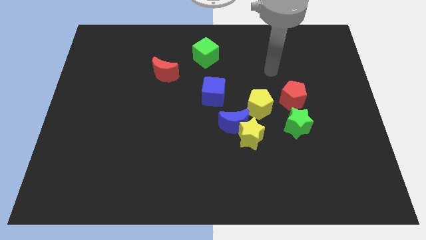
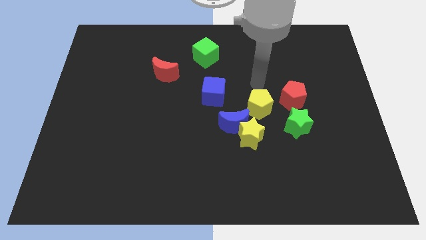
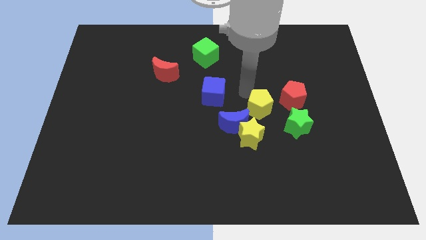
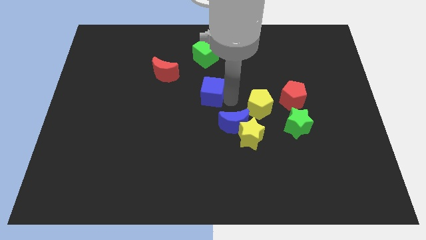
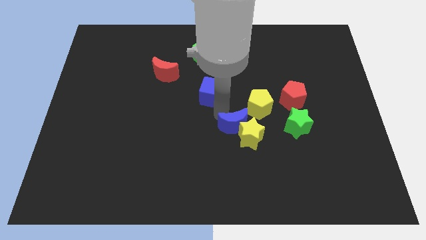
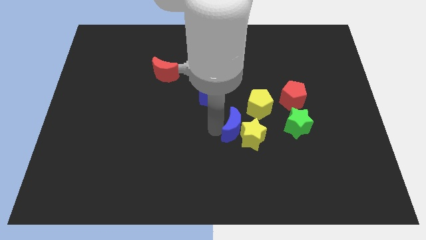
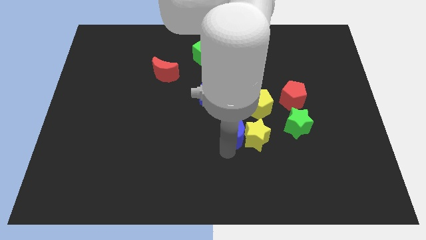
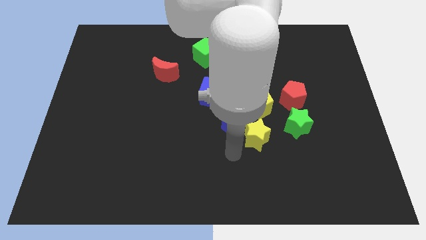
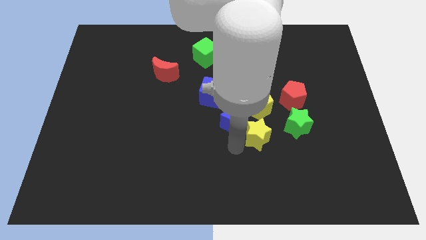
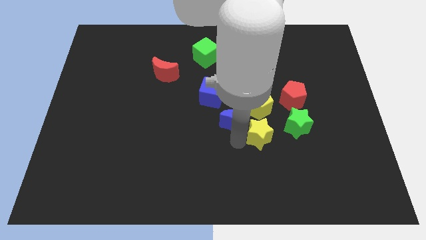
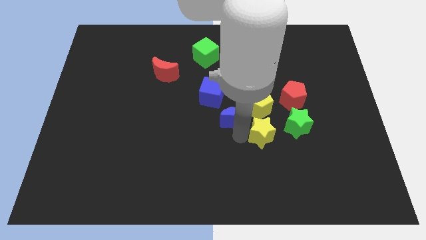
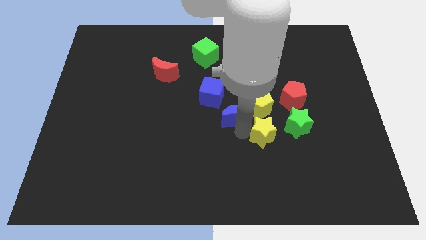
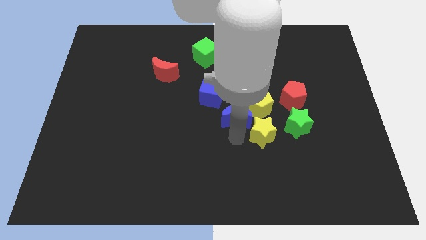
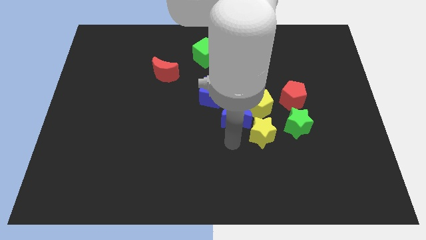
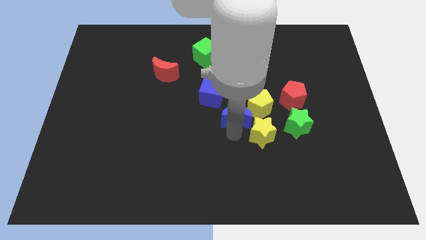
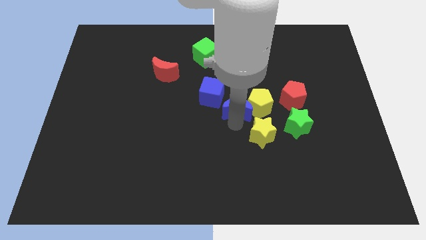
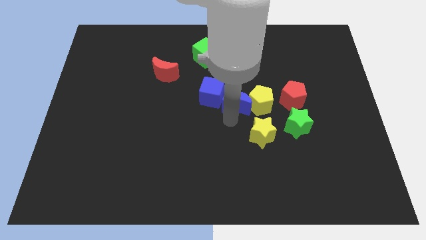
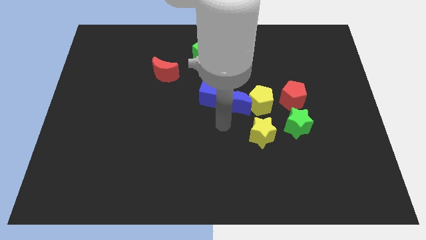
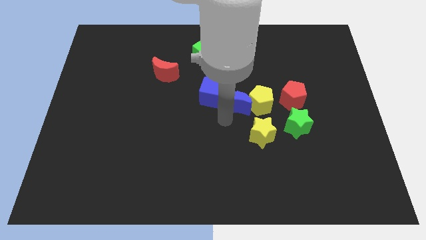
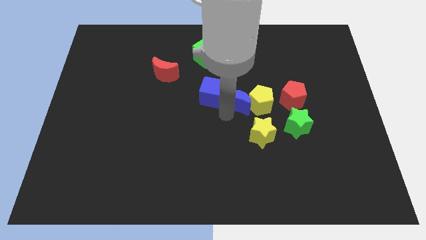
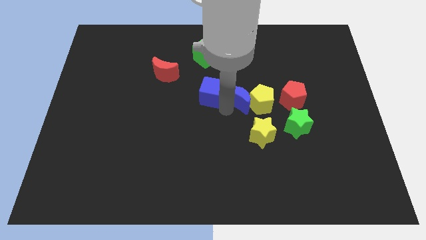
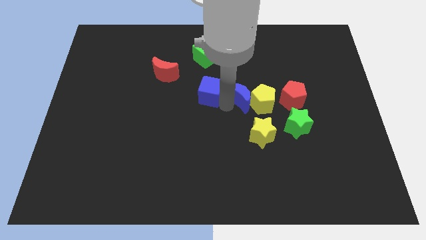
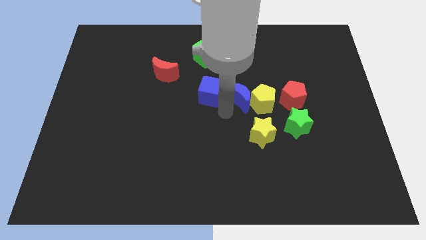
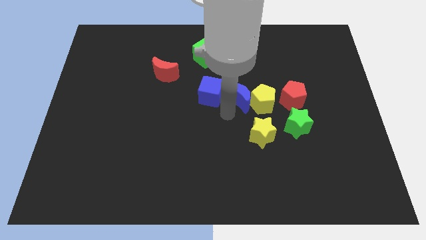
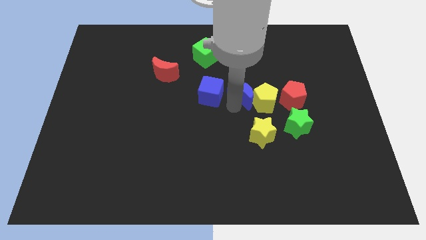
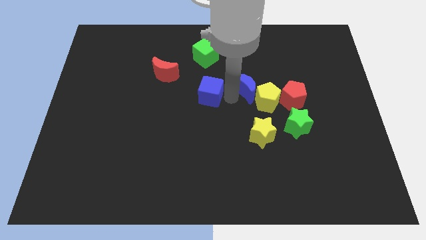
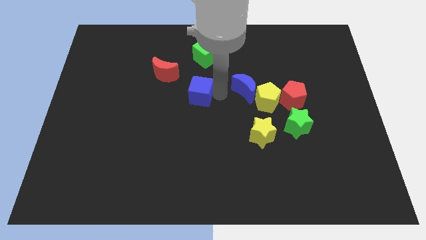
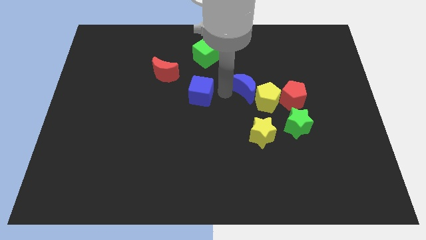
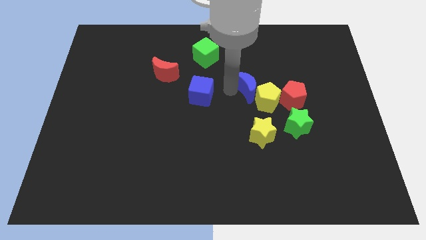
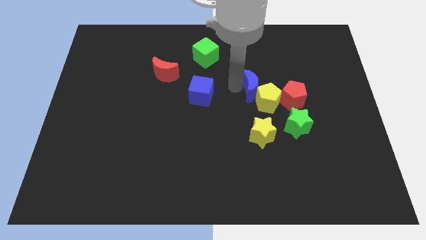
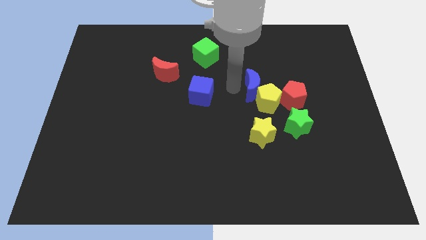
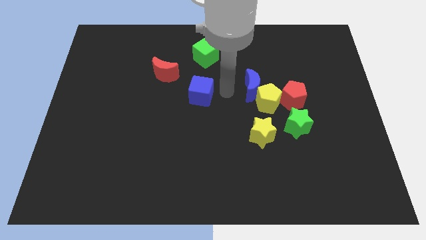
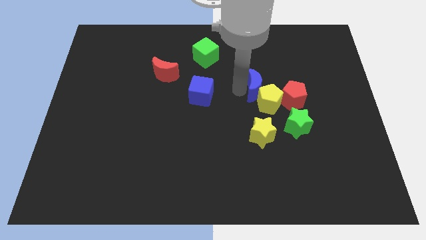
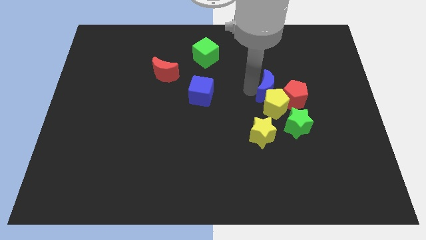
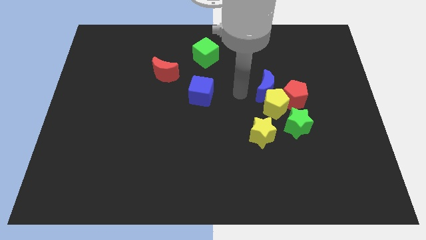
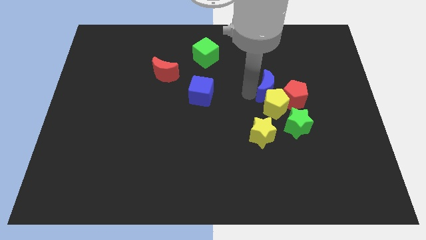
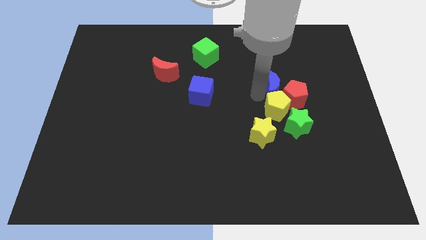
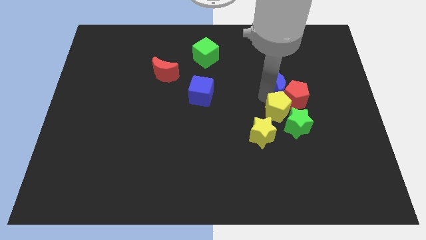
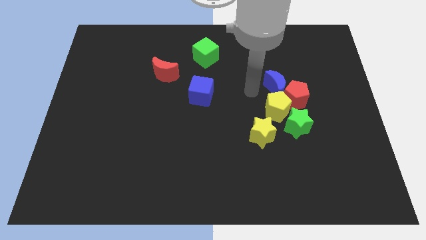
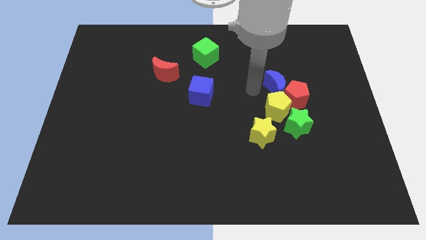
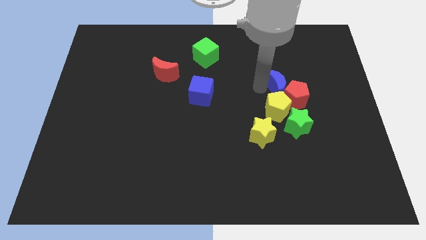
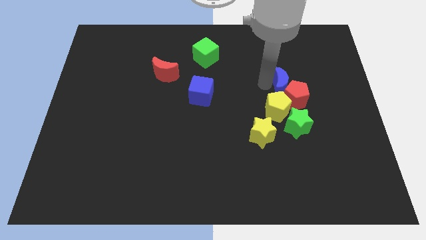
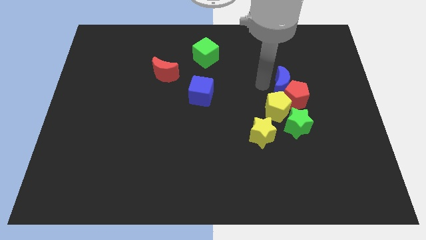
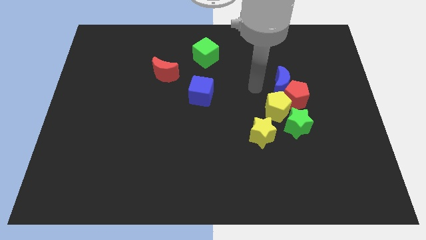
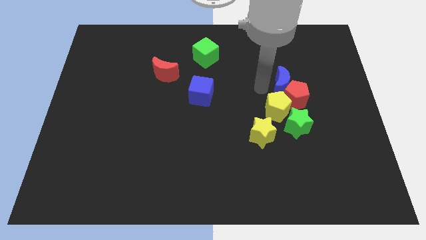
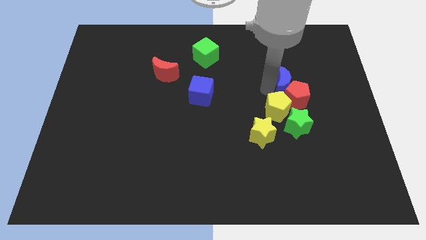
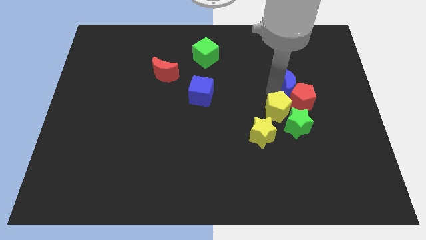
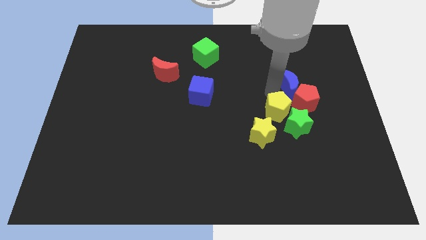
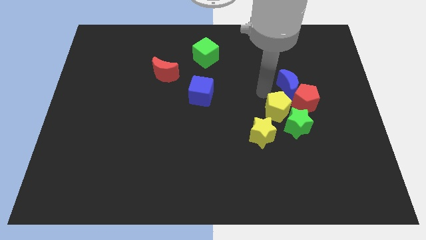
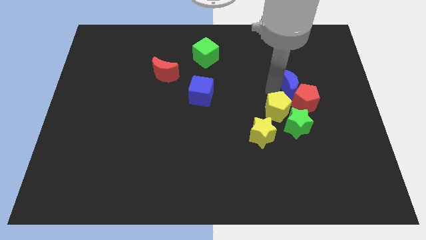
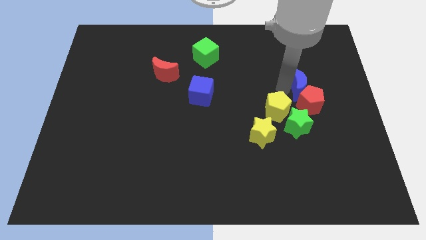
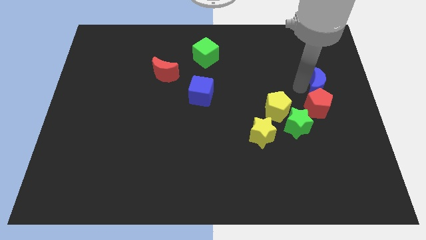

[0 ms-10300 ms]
put the blue moon to the right side of the board

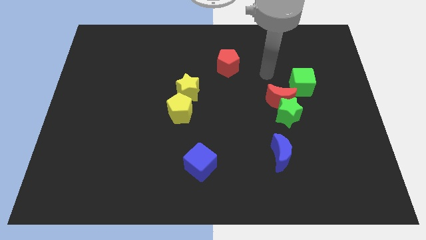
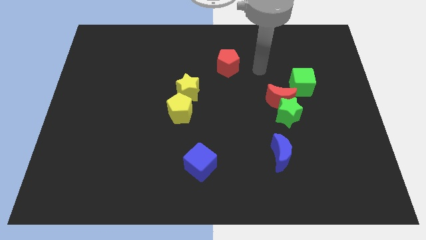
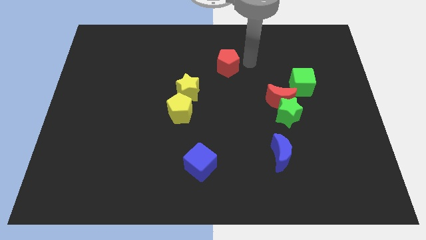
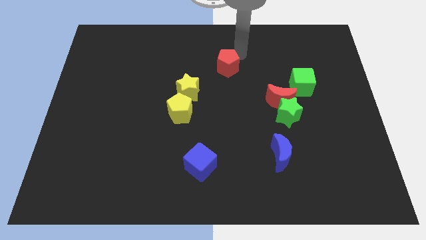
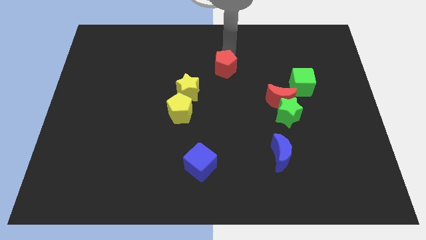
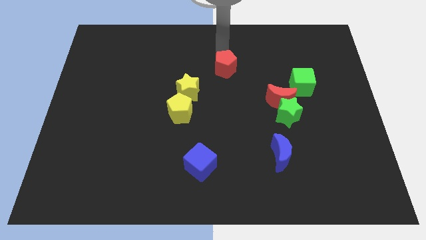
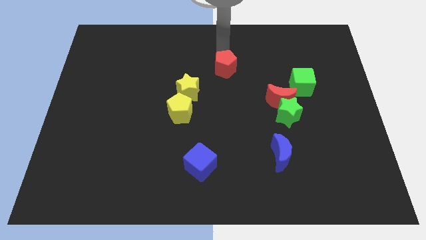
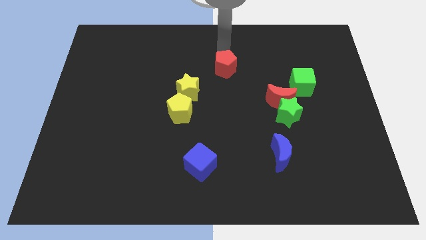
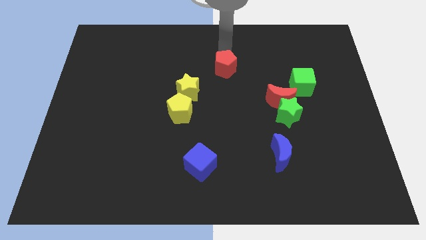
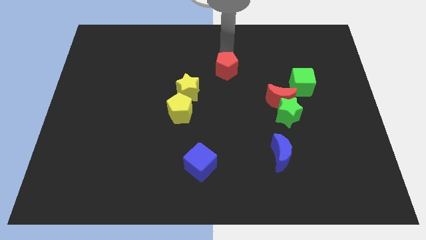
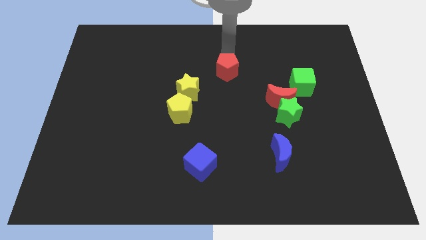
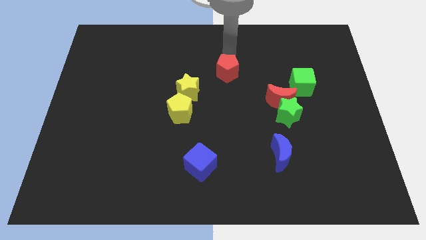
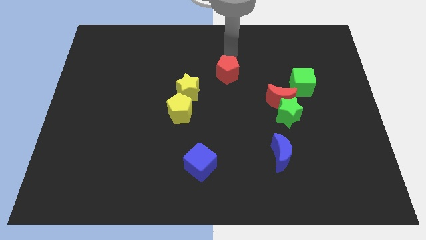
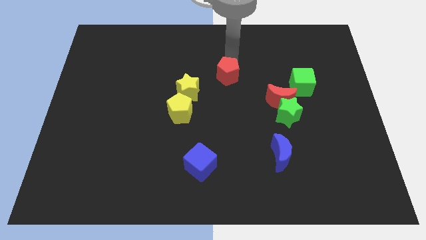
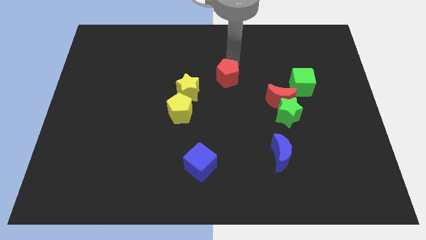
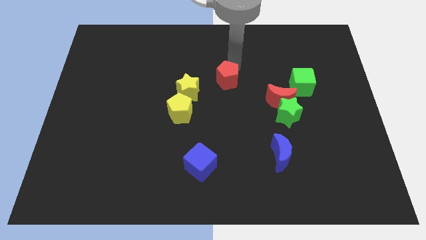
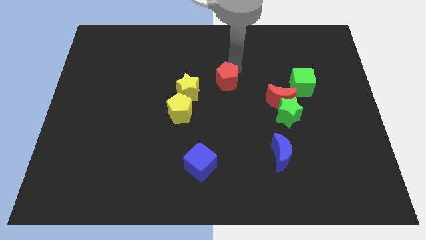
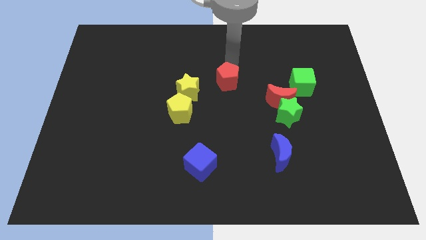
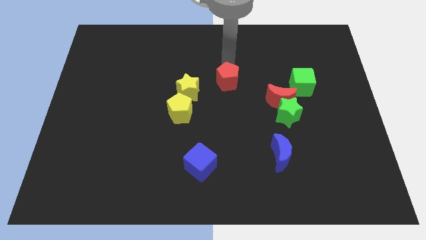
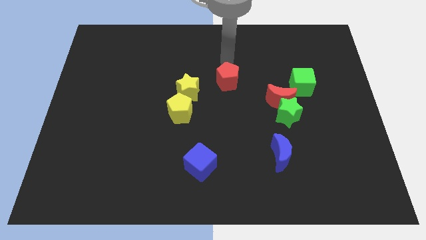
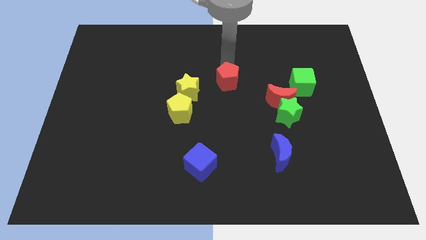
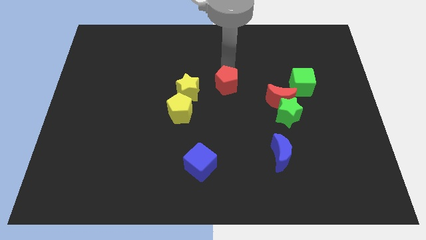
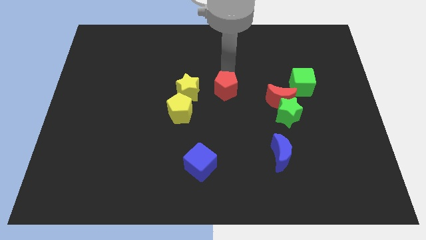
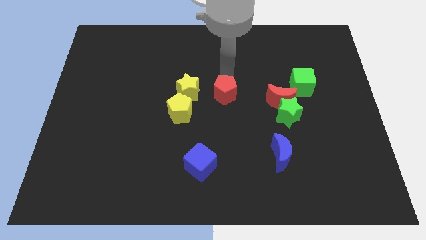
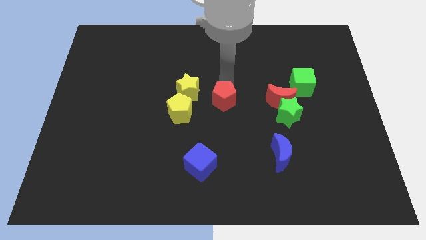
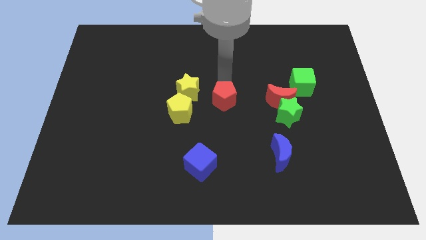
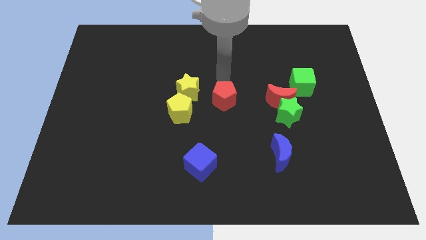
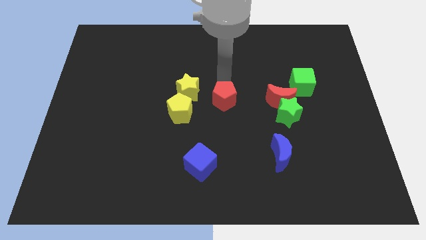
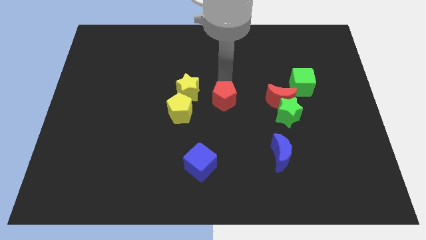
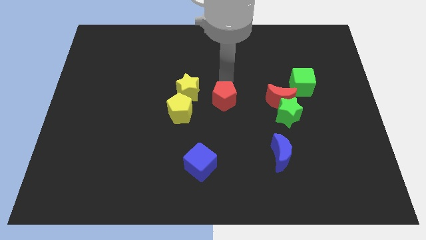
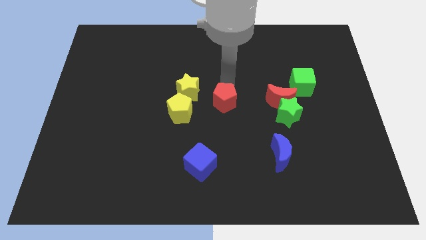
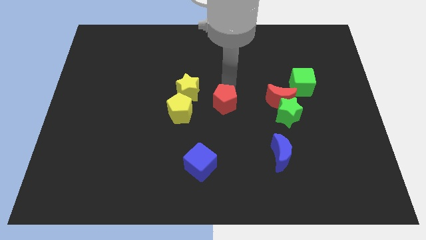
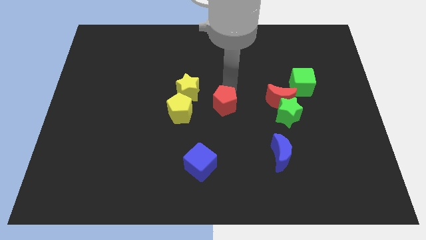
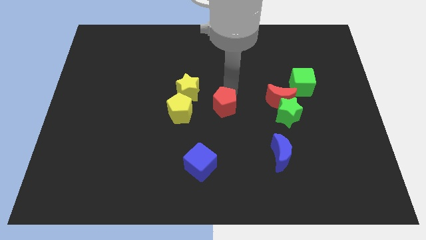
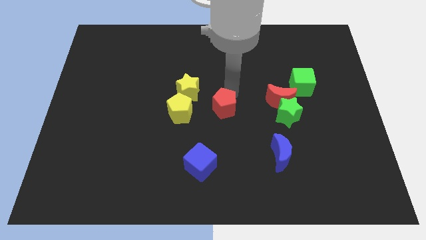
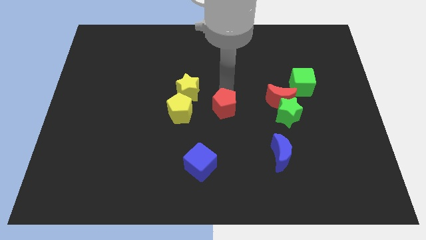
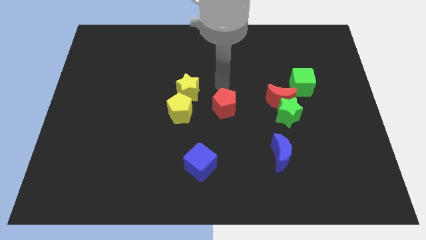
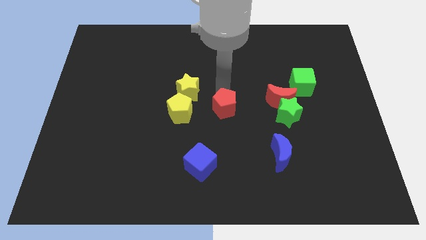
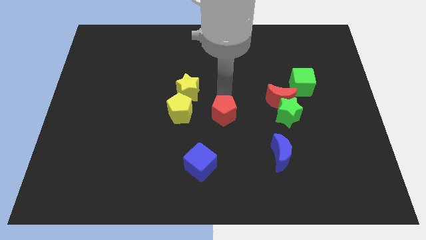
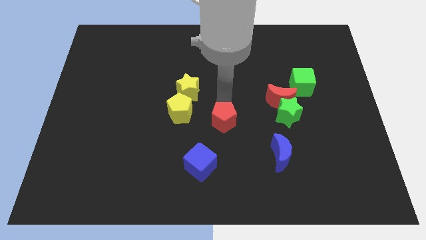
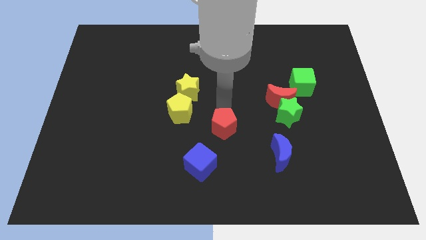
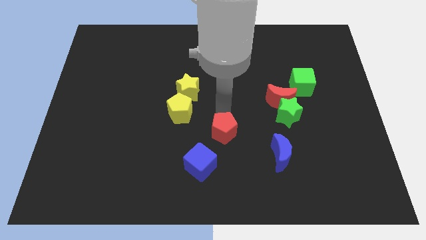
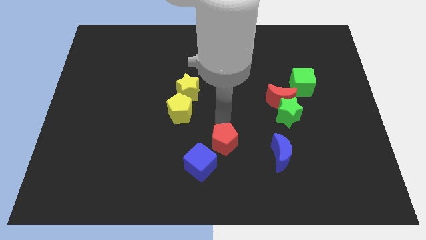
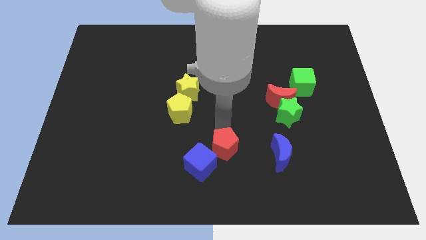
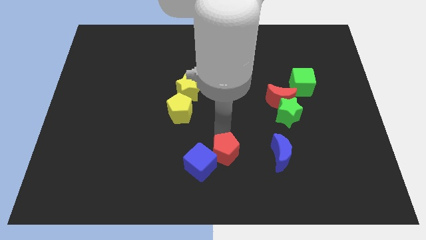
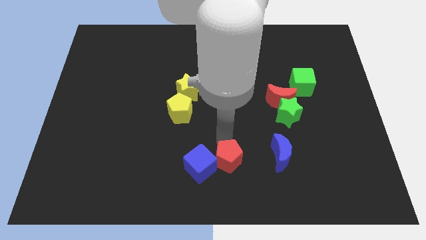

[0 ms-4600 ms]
push the red pentagon to the bottom
